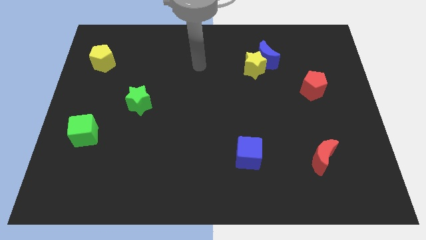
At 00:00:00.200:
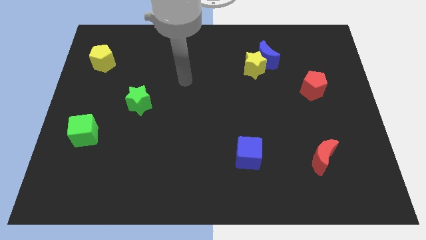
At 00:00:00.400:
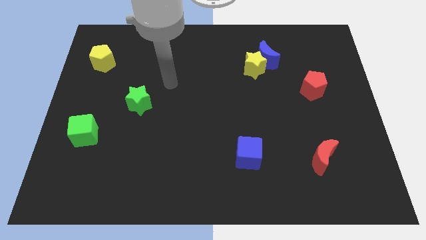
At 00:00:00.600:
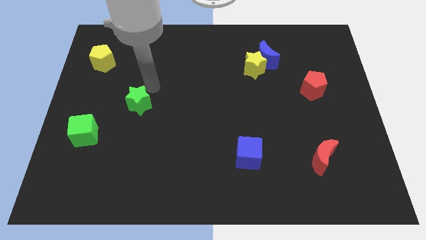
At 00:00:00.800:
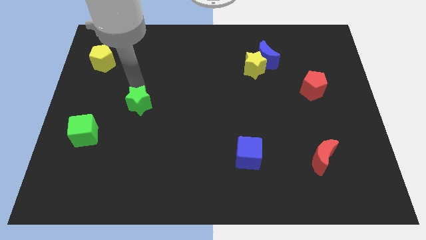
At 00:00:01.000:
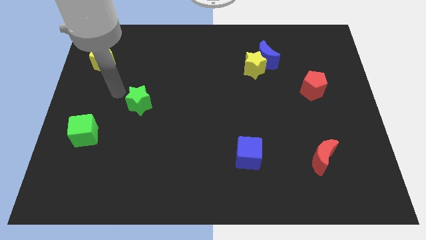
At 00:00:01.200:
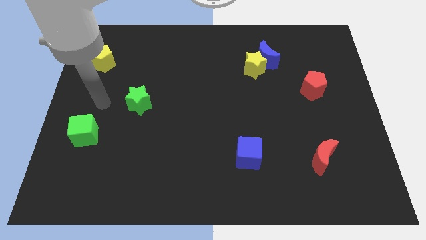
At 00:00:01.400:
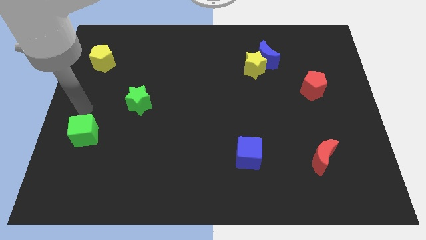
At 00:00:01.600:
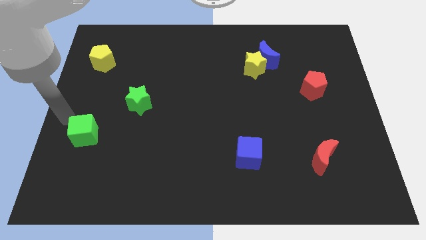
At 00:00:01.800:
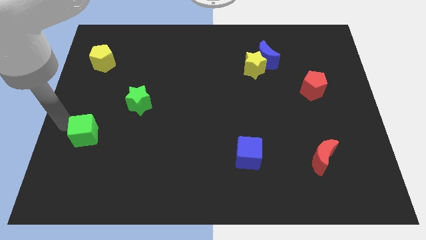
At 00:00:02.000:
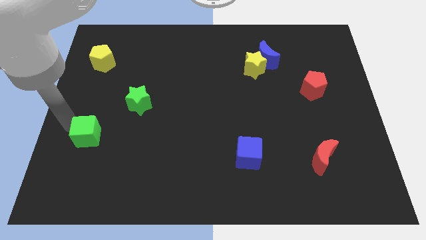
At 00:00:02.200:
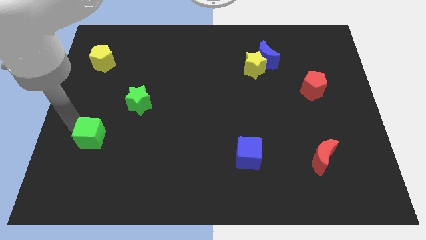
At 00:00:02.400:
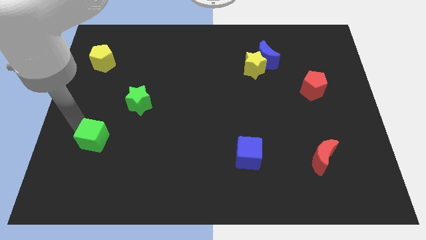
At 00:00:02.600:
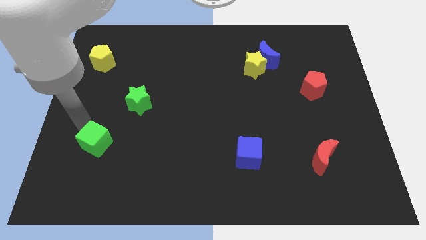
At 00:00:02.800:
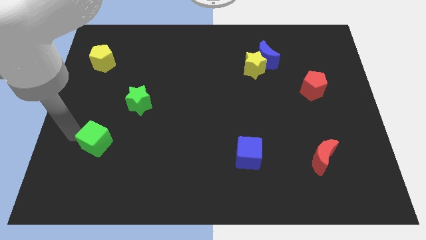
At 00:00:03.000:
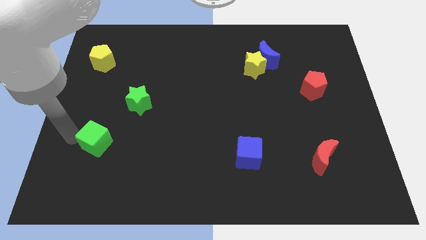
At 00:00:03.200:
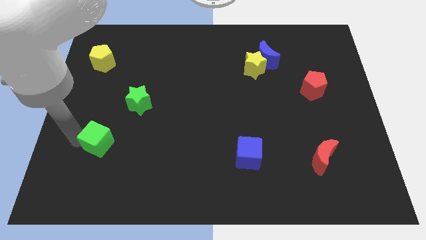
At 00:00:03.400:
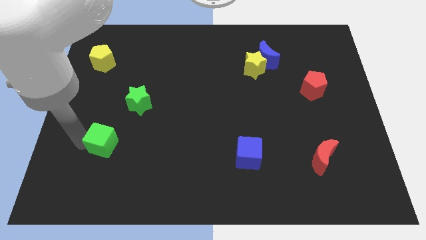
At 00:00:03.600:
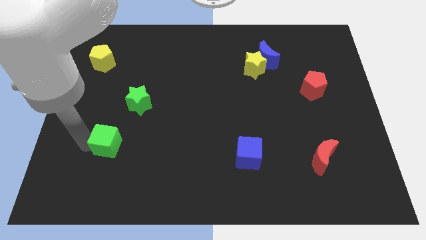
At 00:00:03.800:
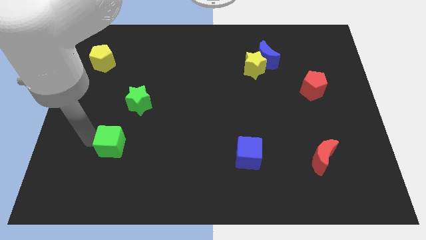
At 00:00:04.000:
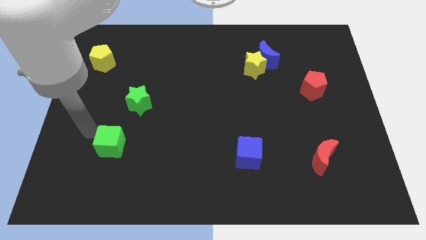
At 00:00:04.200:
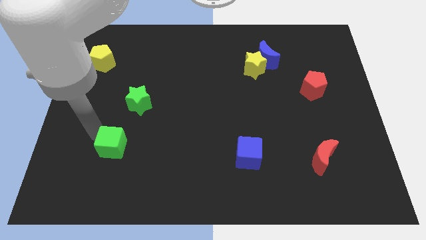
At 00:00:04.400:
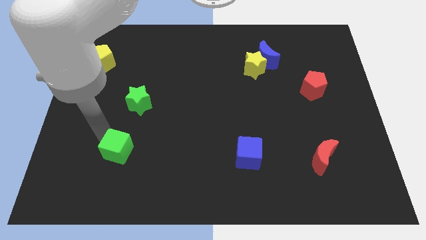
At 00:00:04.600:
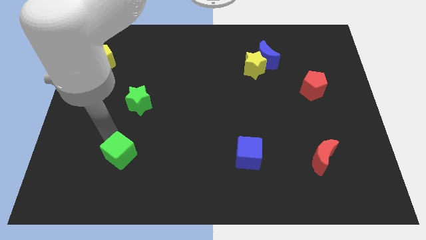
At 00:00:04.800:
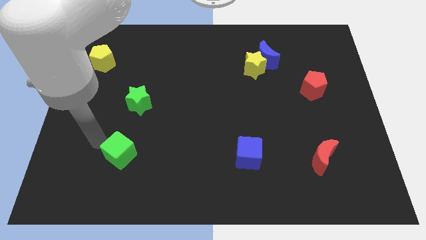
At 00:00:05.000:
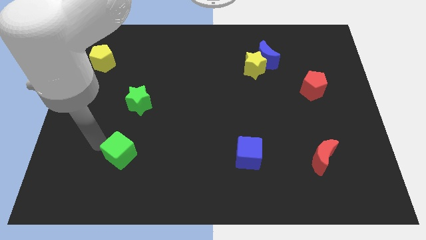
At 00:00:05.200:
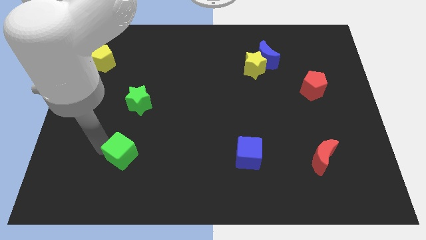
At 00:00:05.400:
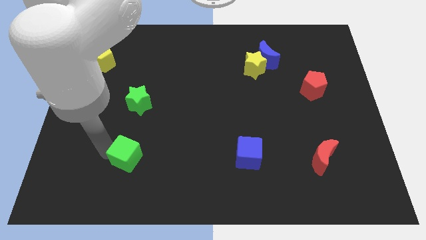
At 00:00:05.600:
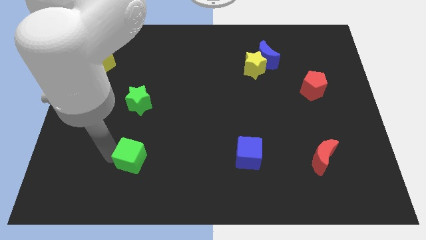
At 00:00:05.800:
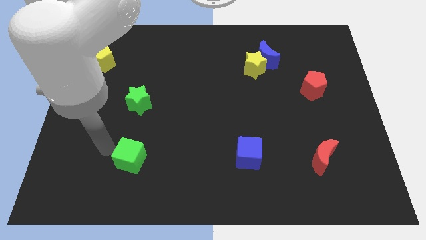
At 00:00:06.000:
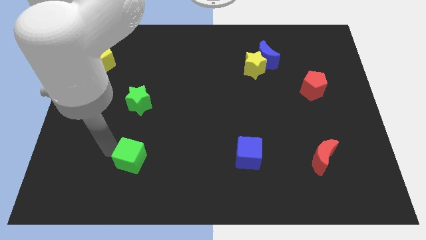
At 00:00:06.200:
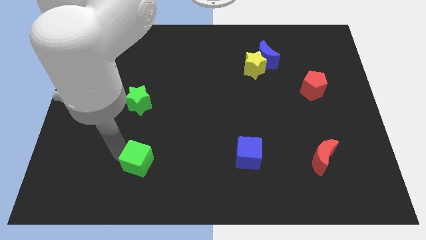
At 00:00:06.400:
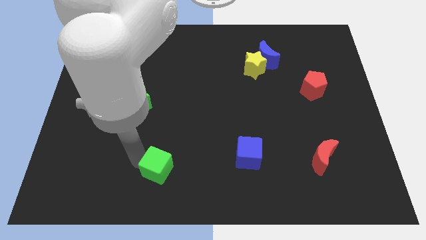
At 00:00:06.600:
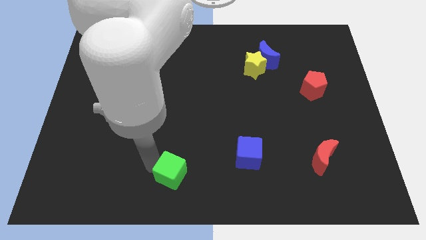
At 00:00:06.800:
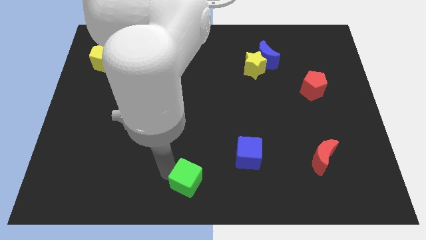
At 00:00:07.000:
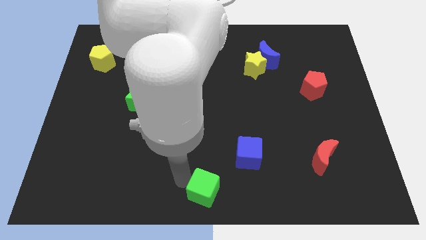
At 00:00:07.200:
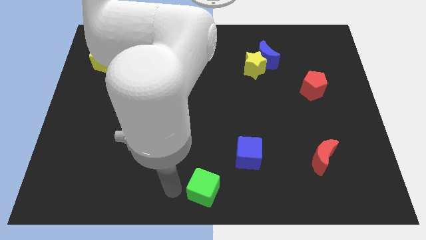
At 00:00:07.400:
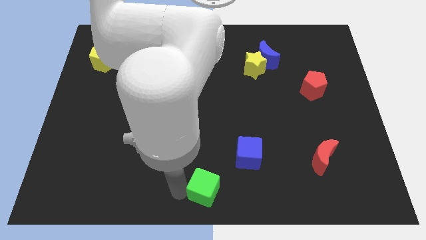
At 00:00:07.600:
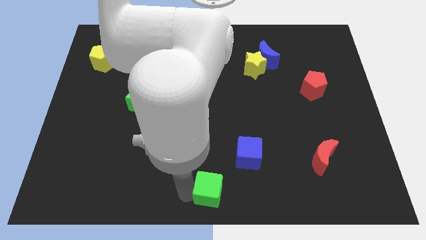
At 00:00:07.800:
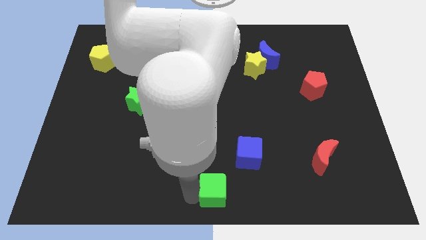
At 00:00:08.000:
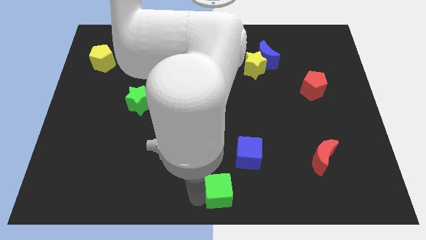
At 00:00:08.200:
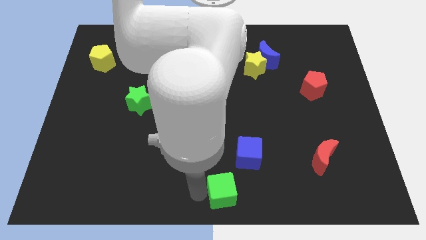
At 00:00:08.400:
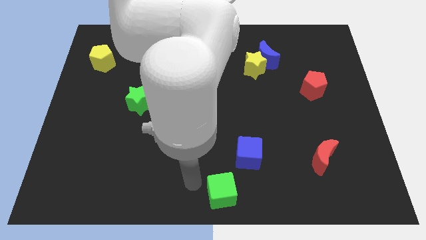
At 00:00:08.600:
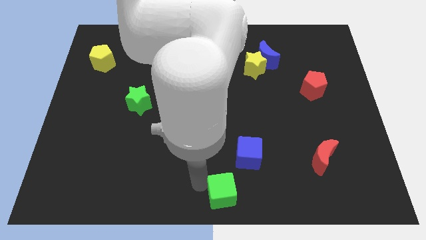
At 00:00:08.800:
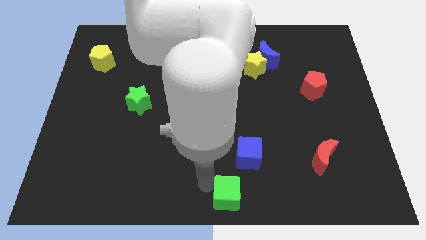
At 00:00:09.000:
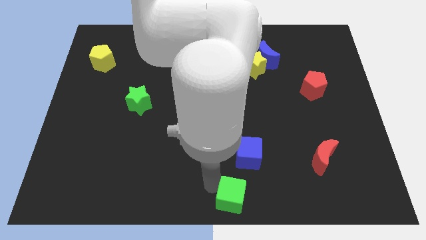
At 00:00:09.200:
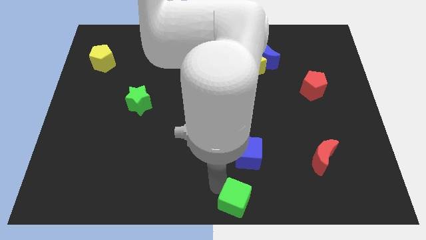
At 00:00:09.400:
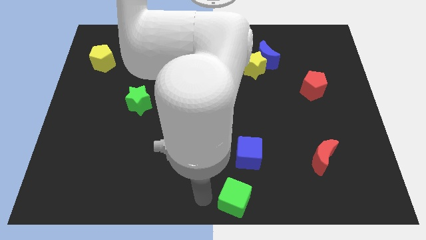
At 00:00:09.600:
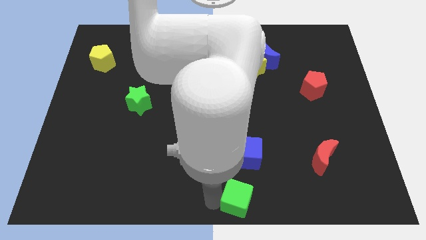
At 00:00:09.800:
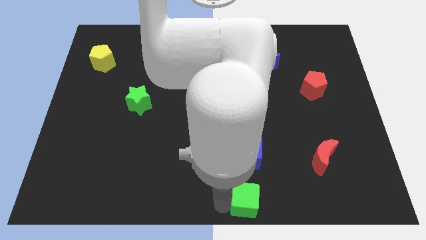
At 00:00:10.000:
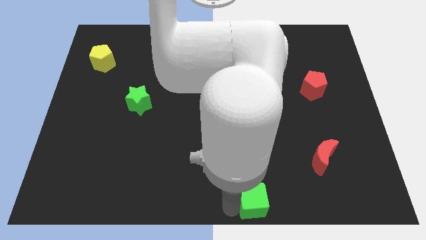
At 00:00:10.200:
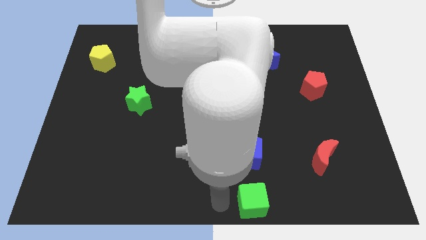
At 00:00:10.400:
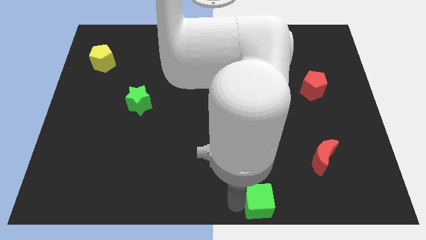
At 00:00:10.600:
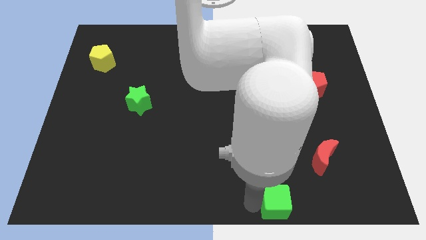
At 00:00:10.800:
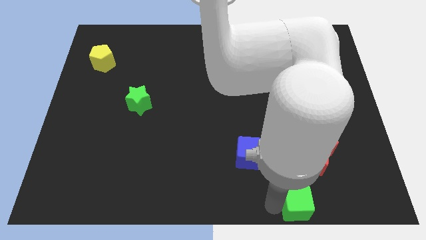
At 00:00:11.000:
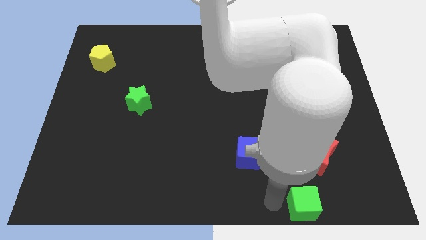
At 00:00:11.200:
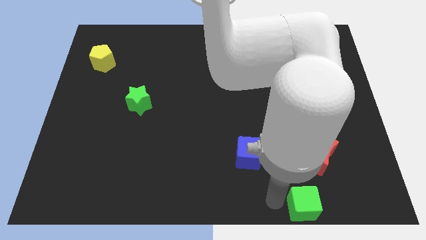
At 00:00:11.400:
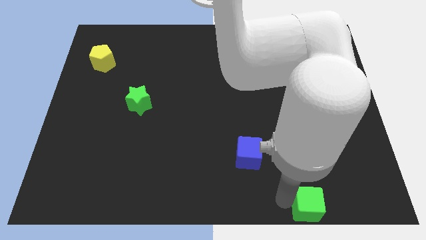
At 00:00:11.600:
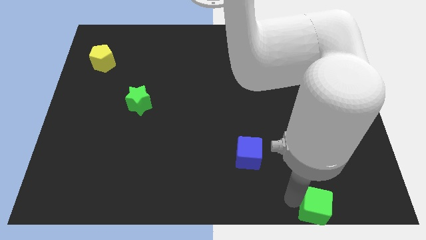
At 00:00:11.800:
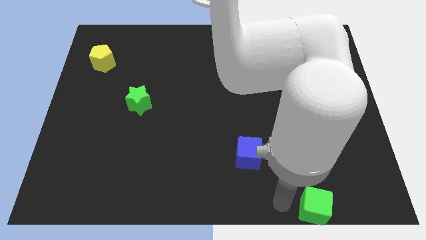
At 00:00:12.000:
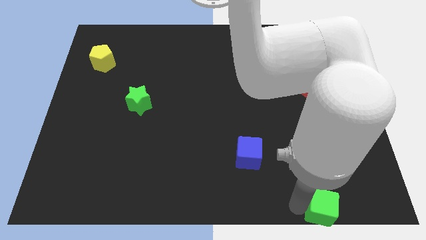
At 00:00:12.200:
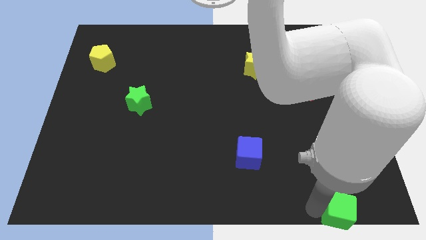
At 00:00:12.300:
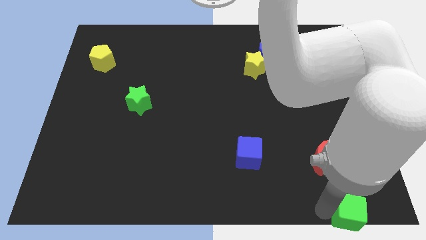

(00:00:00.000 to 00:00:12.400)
move the green cube to the lower right corner
